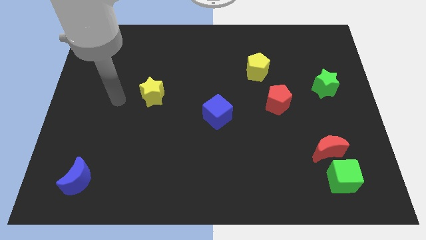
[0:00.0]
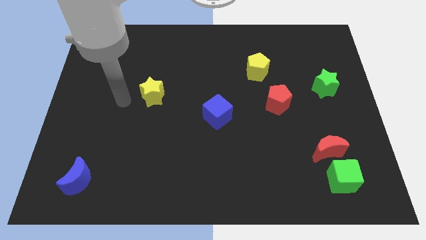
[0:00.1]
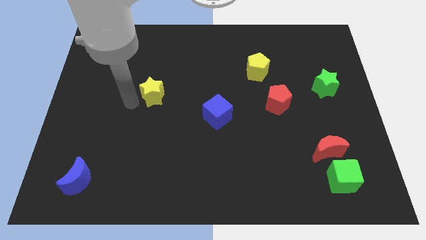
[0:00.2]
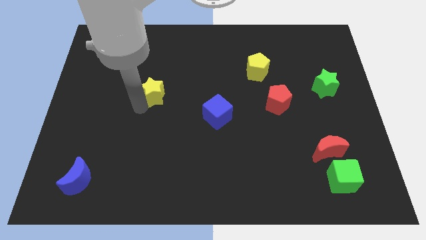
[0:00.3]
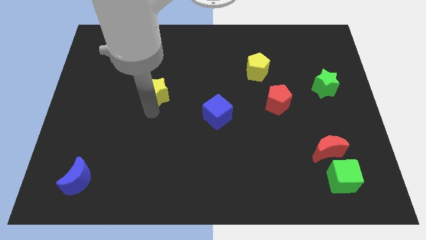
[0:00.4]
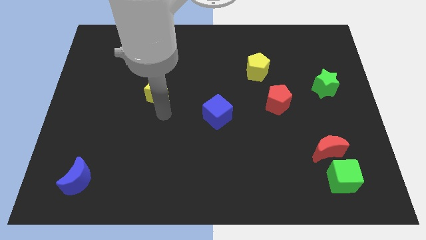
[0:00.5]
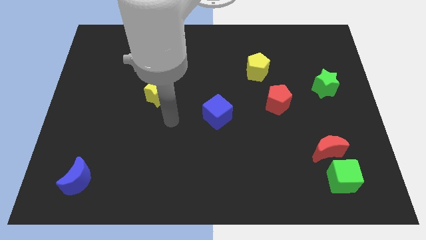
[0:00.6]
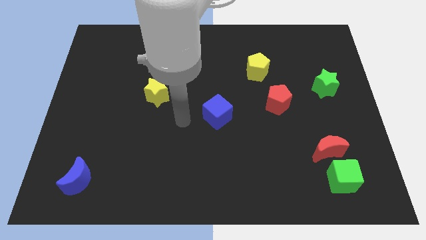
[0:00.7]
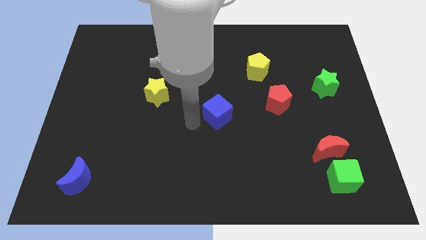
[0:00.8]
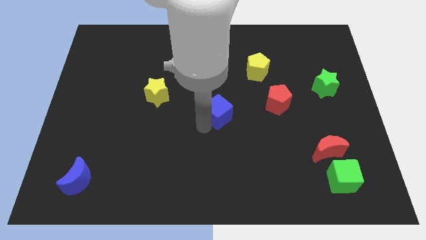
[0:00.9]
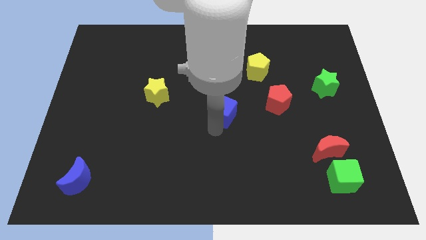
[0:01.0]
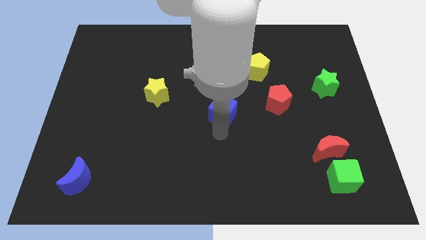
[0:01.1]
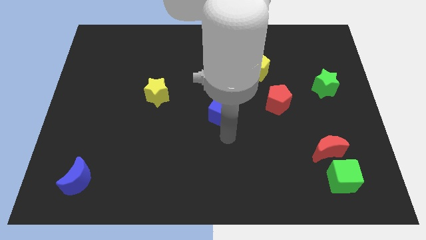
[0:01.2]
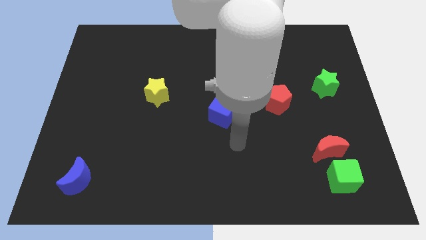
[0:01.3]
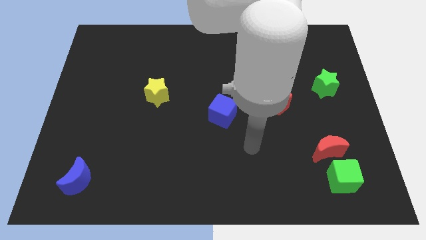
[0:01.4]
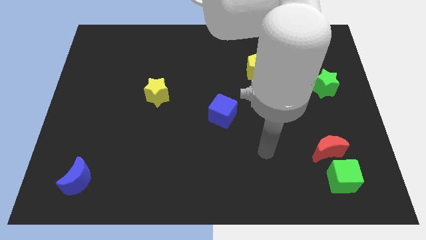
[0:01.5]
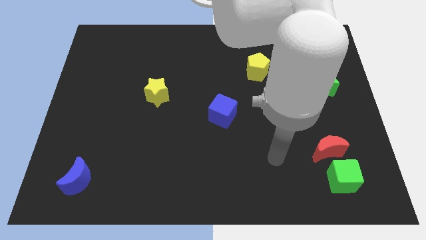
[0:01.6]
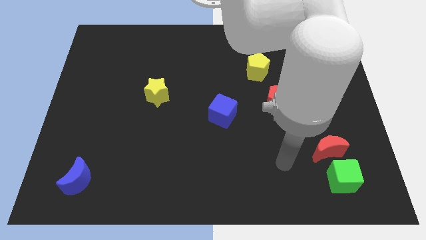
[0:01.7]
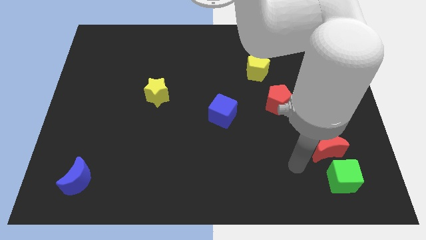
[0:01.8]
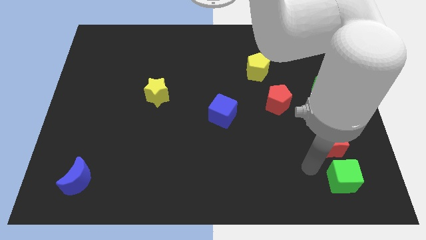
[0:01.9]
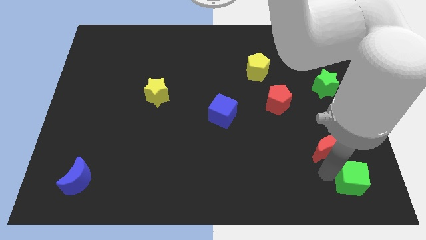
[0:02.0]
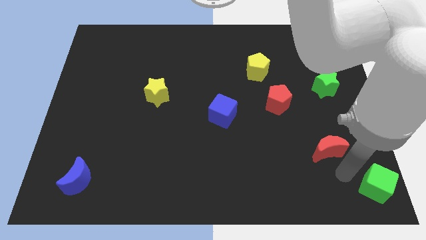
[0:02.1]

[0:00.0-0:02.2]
separate the red moon from the green cube

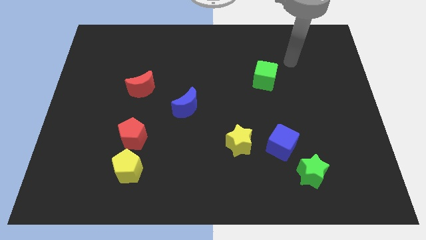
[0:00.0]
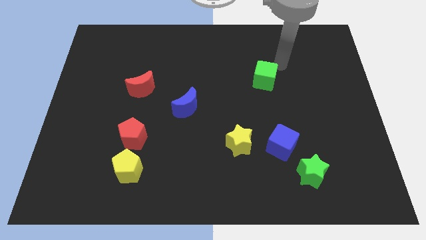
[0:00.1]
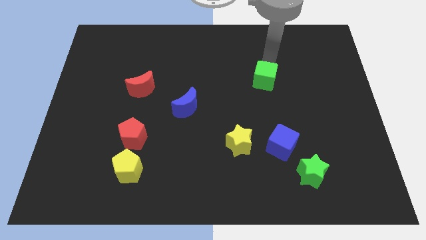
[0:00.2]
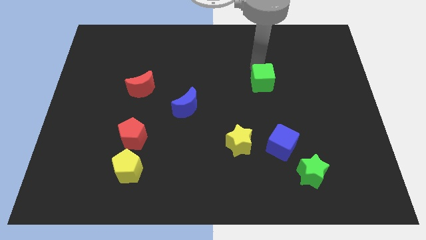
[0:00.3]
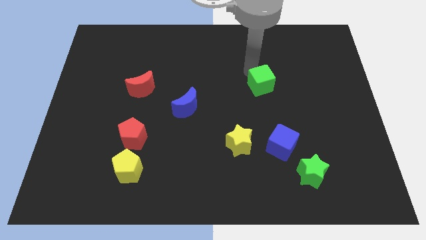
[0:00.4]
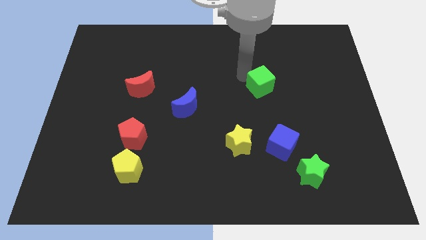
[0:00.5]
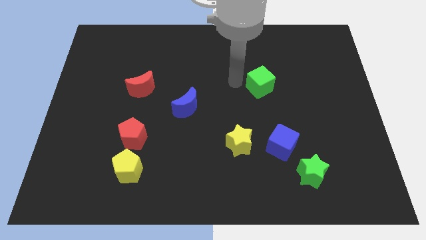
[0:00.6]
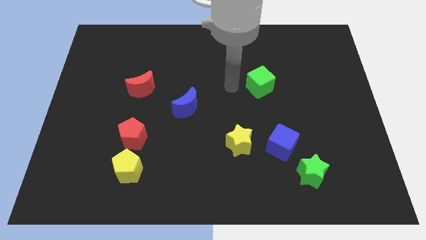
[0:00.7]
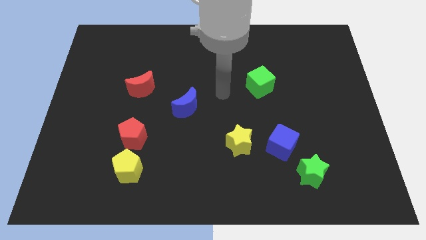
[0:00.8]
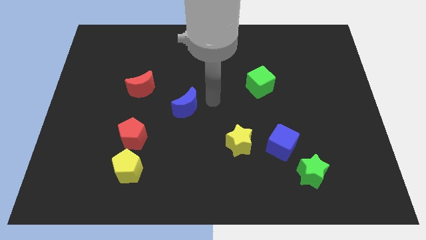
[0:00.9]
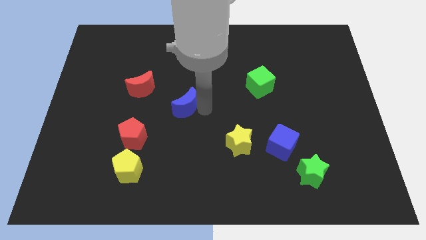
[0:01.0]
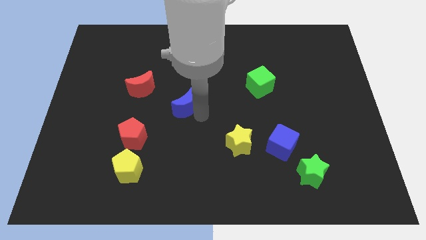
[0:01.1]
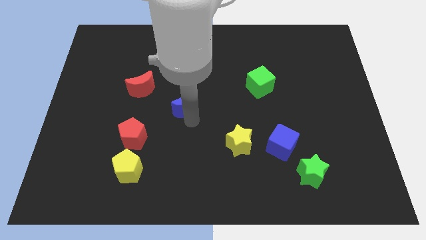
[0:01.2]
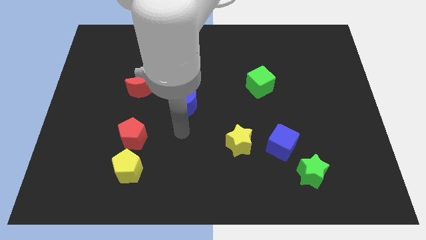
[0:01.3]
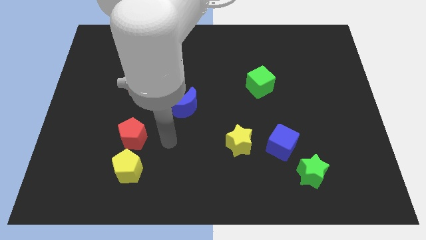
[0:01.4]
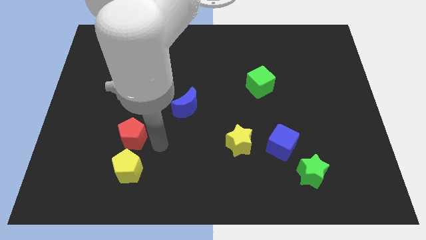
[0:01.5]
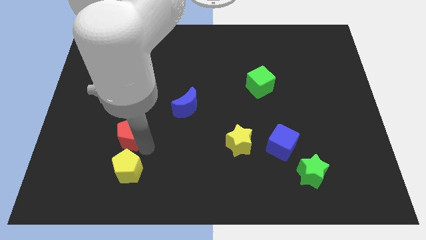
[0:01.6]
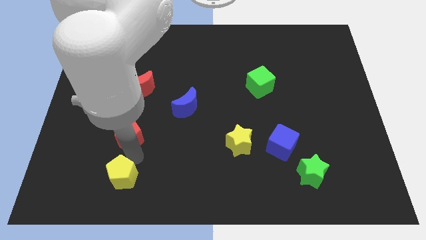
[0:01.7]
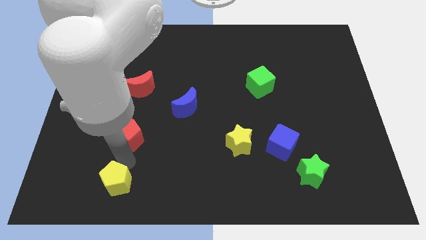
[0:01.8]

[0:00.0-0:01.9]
separate the red pentagon from the yellow pentagon

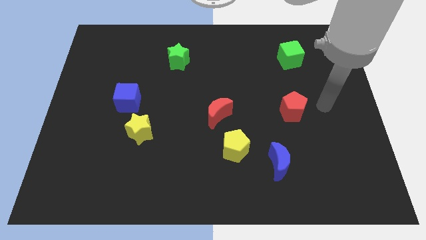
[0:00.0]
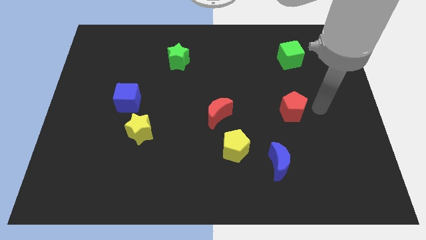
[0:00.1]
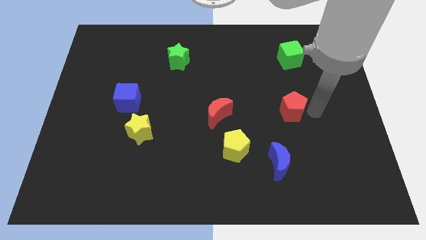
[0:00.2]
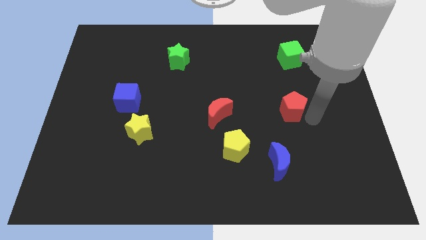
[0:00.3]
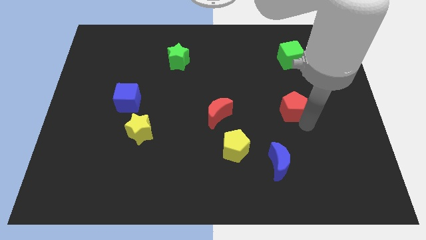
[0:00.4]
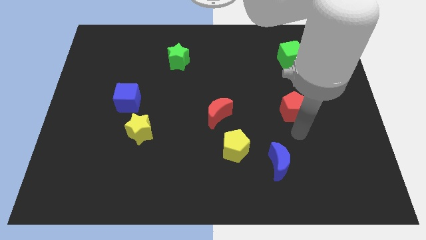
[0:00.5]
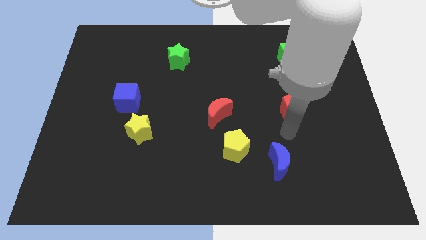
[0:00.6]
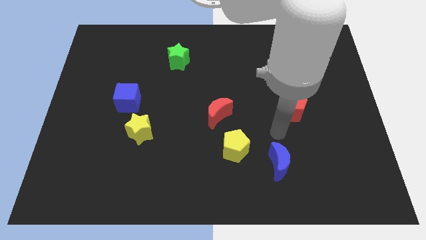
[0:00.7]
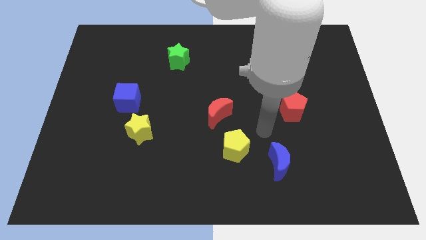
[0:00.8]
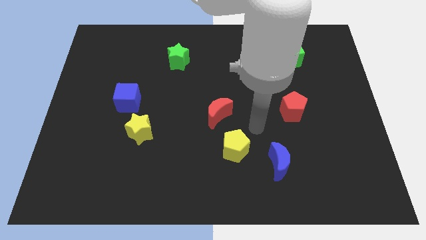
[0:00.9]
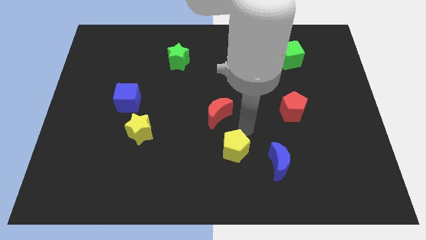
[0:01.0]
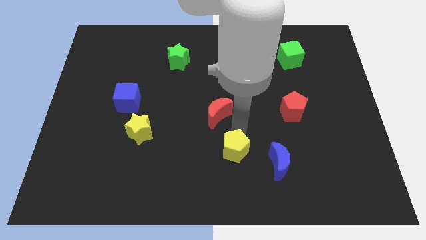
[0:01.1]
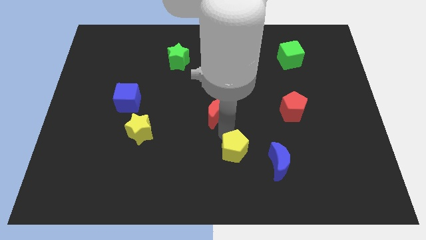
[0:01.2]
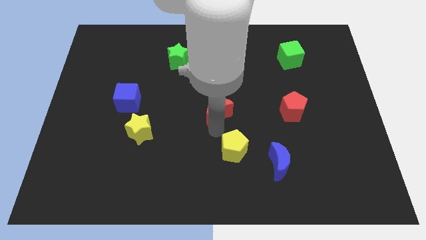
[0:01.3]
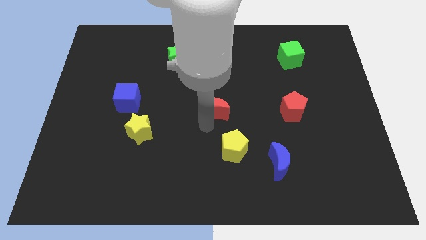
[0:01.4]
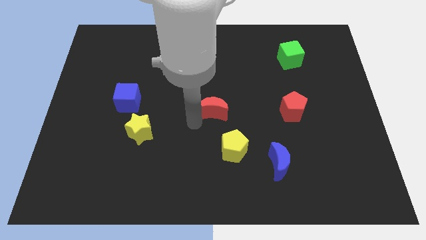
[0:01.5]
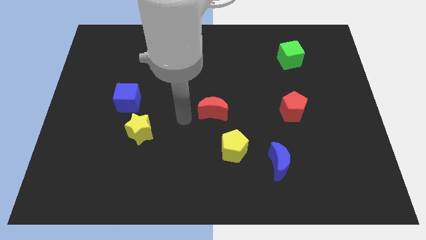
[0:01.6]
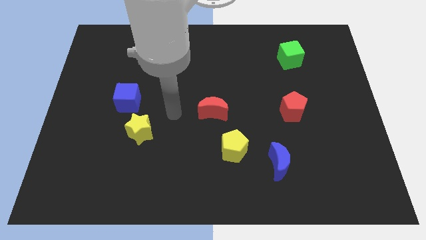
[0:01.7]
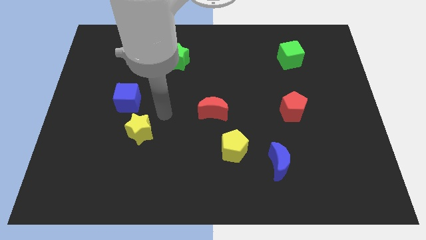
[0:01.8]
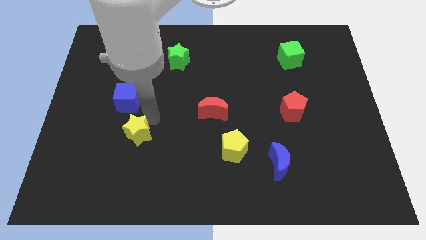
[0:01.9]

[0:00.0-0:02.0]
pull the blue cube apart from the yellow star

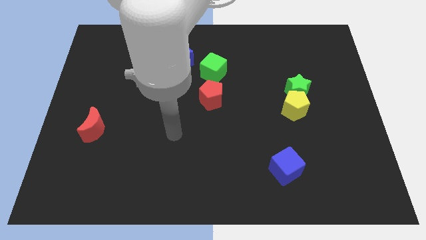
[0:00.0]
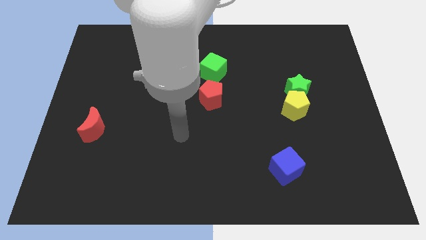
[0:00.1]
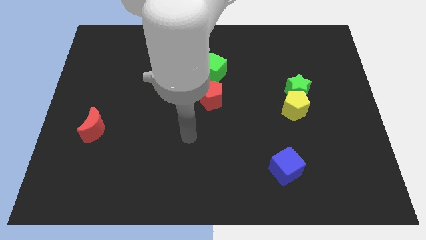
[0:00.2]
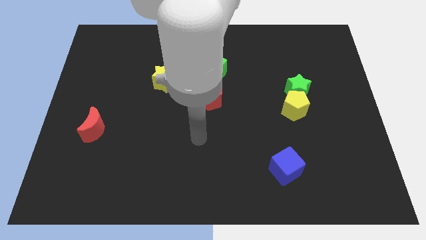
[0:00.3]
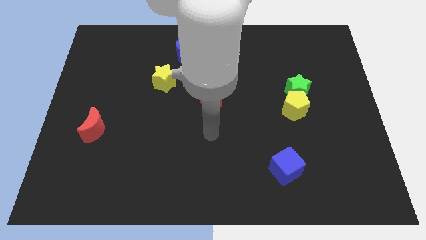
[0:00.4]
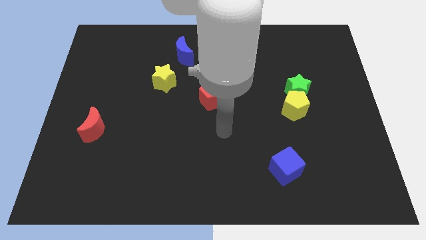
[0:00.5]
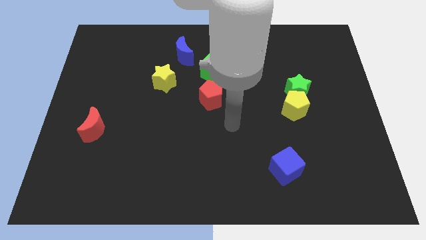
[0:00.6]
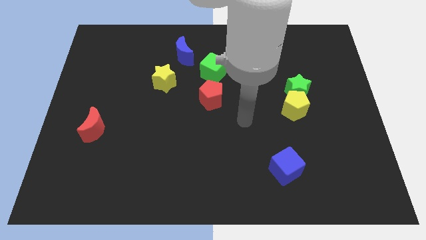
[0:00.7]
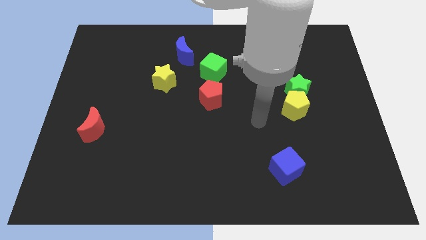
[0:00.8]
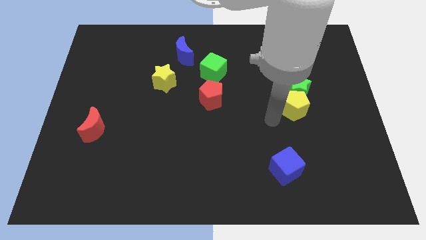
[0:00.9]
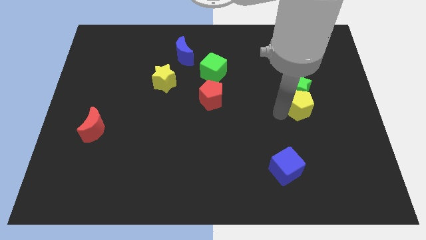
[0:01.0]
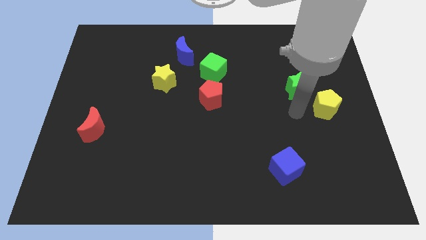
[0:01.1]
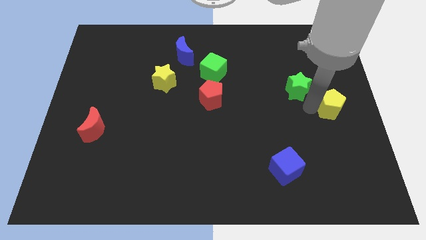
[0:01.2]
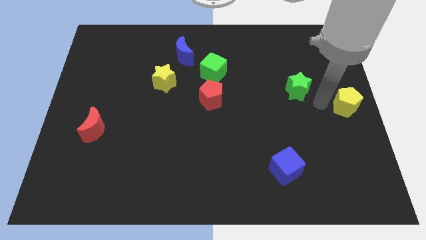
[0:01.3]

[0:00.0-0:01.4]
pull the green star apart from the yellow pentagon

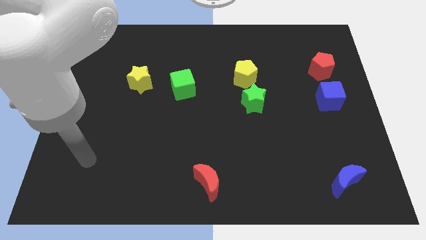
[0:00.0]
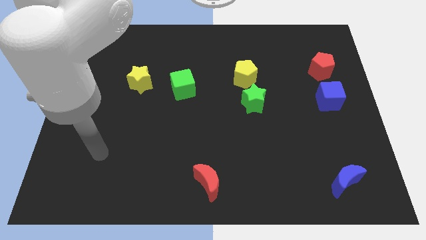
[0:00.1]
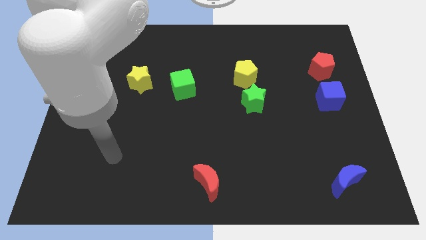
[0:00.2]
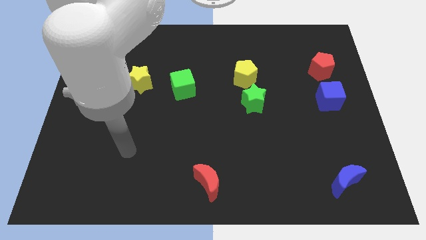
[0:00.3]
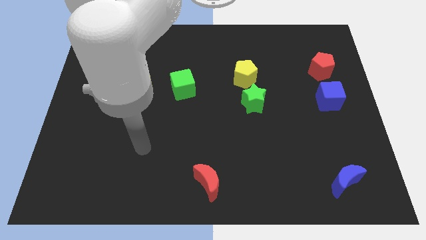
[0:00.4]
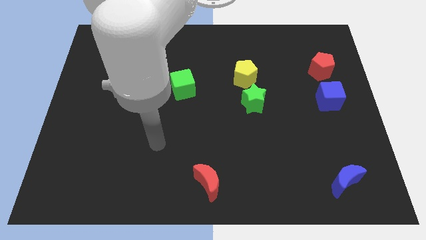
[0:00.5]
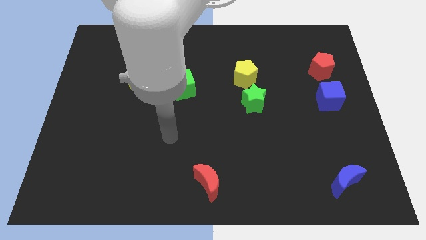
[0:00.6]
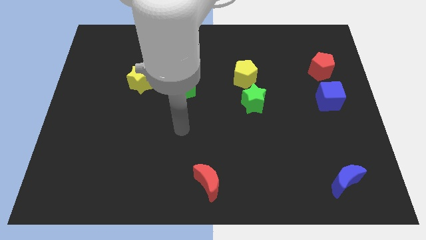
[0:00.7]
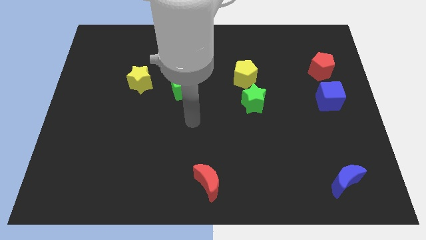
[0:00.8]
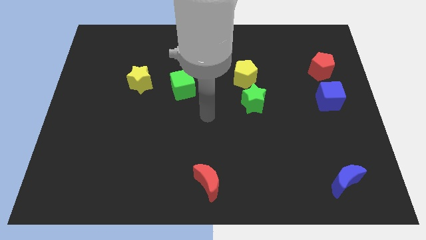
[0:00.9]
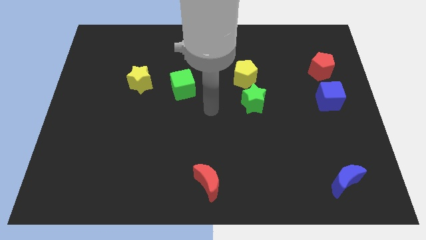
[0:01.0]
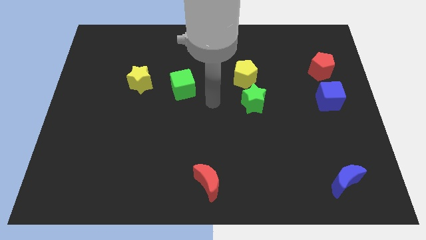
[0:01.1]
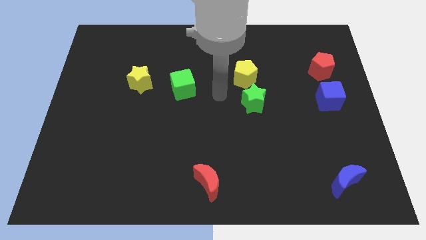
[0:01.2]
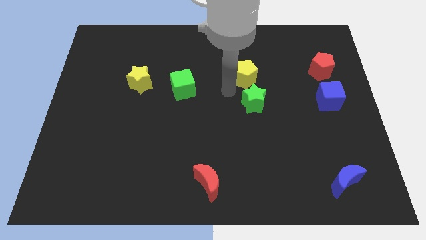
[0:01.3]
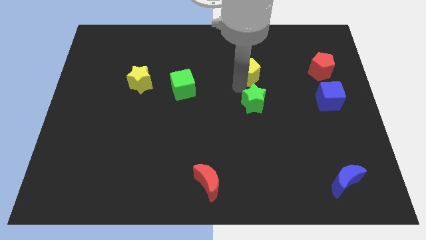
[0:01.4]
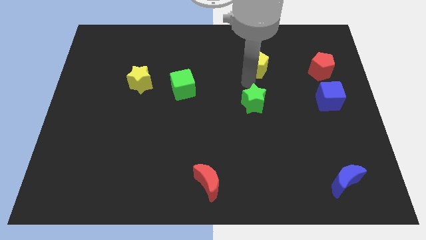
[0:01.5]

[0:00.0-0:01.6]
separate the green star from the yellow pentagon

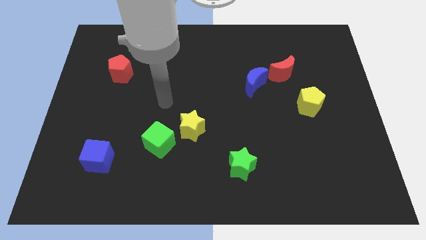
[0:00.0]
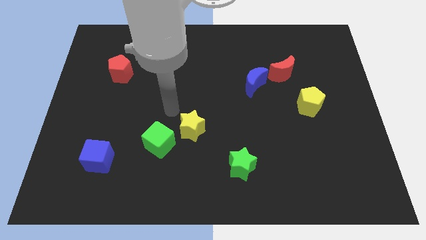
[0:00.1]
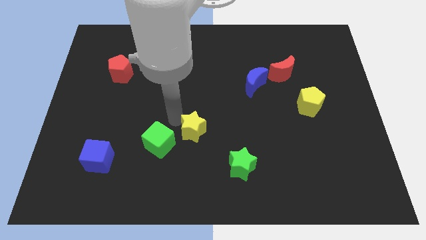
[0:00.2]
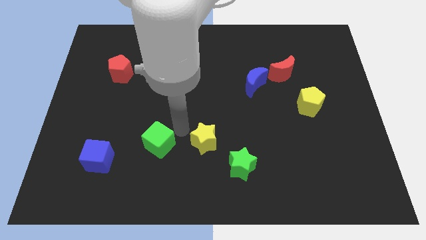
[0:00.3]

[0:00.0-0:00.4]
separate the green cube from the yellow star

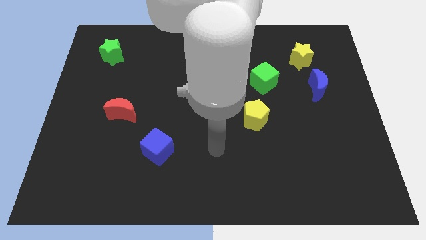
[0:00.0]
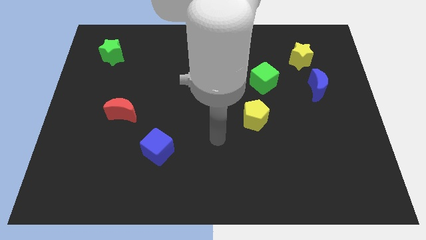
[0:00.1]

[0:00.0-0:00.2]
separate the red pentagon from the green cube
